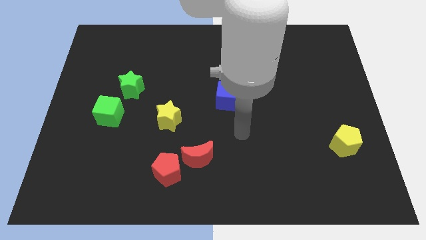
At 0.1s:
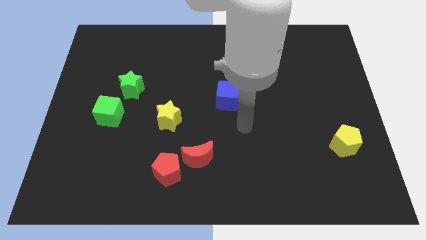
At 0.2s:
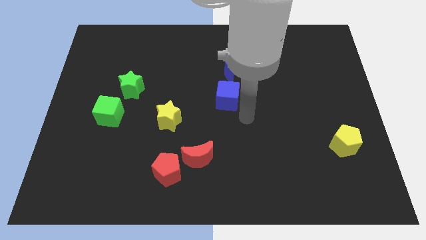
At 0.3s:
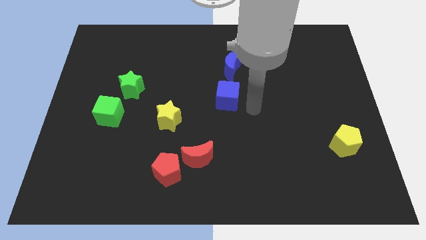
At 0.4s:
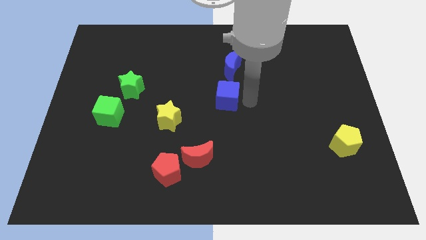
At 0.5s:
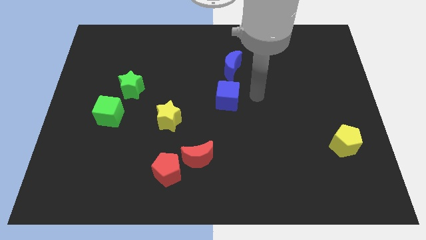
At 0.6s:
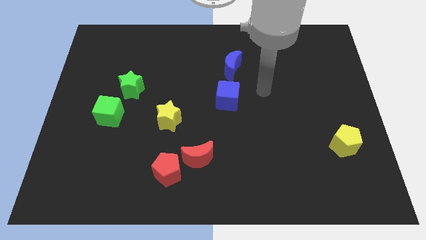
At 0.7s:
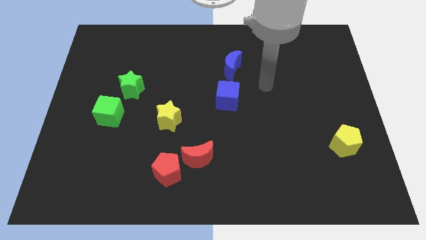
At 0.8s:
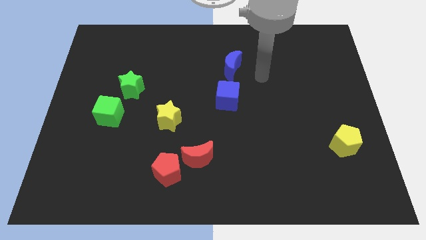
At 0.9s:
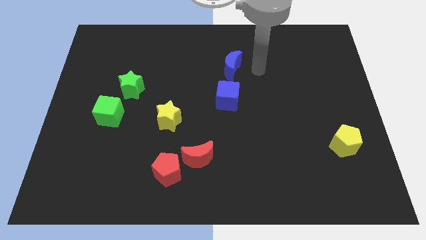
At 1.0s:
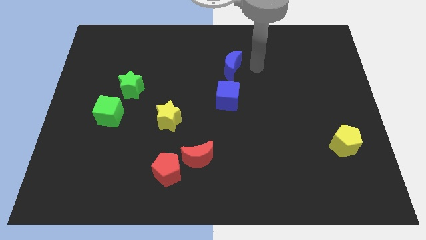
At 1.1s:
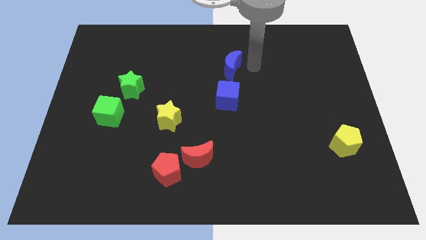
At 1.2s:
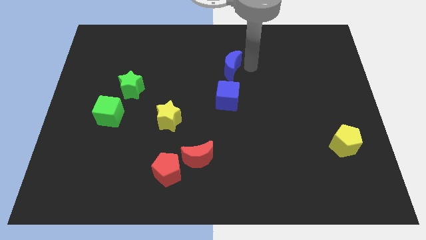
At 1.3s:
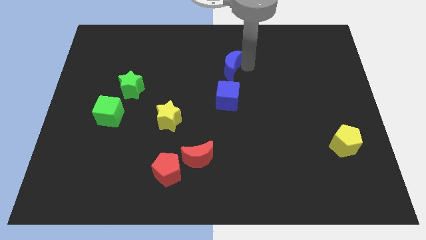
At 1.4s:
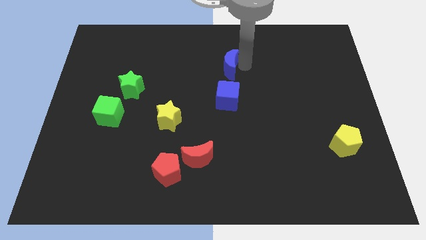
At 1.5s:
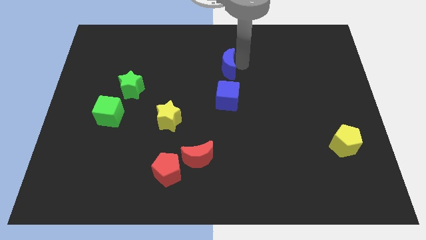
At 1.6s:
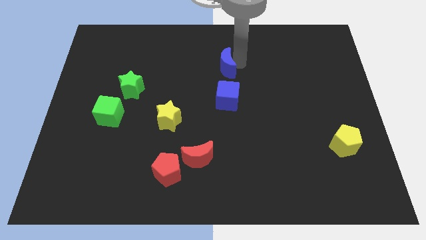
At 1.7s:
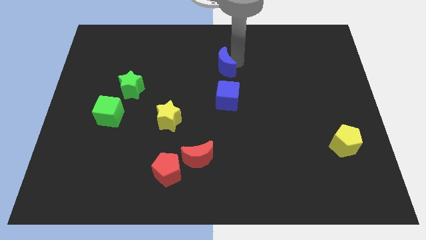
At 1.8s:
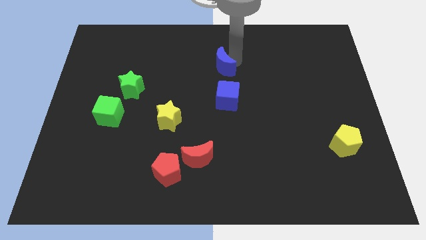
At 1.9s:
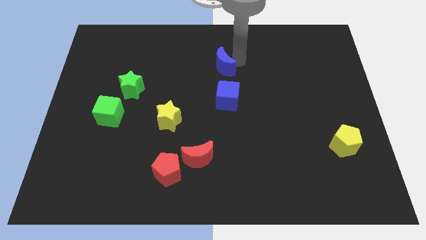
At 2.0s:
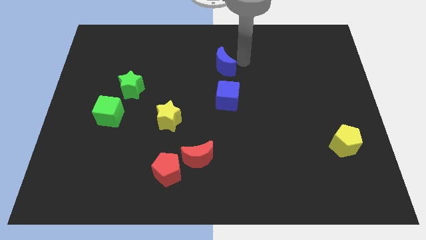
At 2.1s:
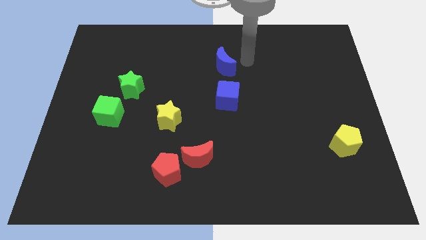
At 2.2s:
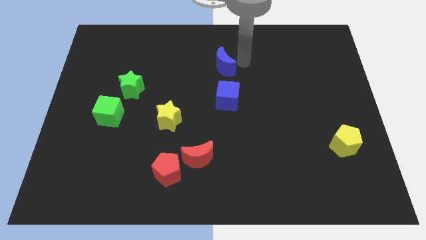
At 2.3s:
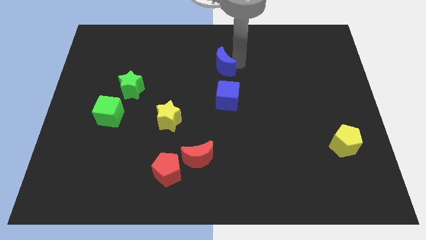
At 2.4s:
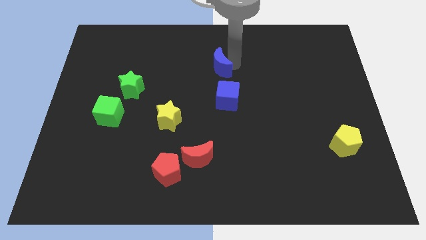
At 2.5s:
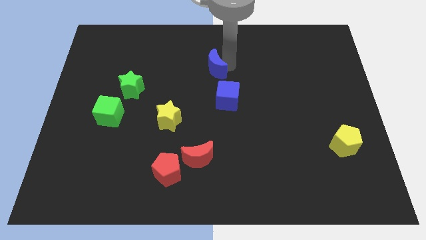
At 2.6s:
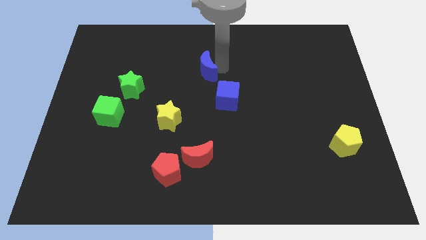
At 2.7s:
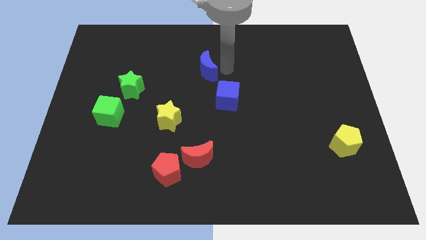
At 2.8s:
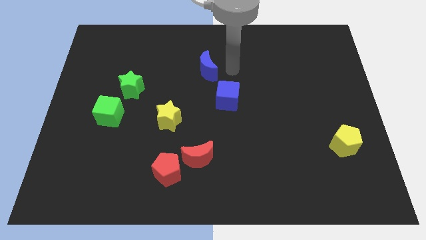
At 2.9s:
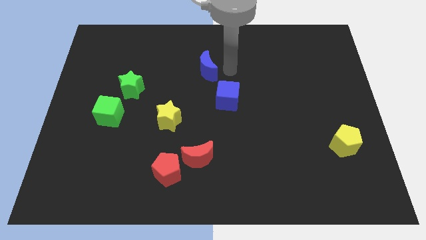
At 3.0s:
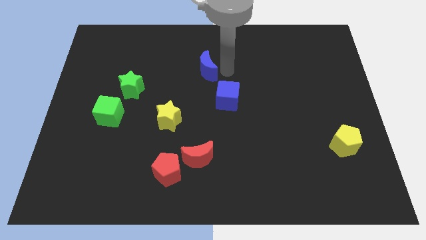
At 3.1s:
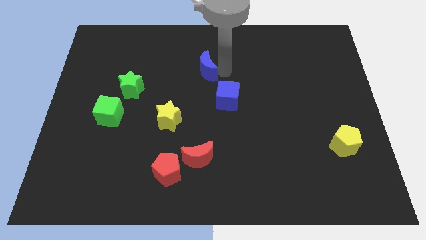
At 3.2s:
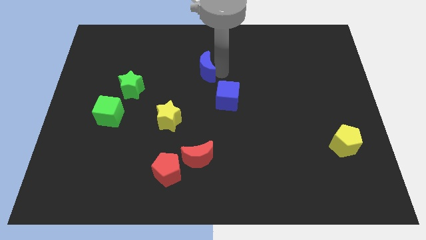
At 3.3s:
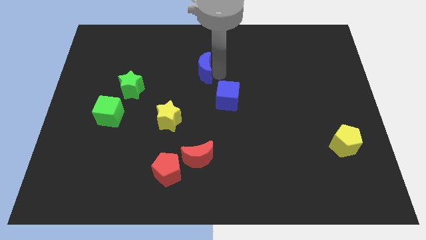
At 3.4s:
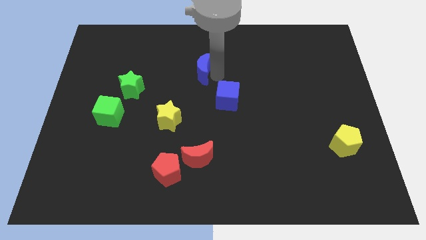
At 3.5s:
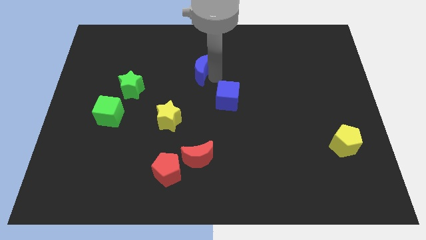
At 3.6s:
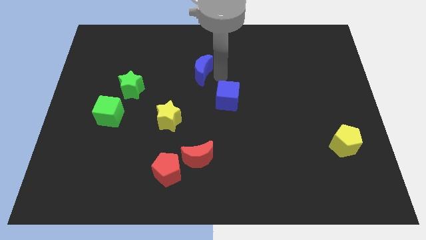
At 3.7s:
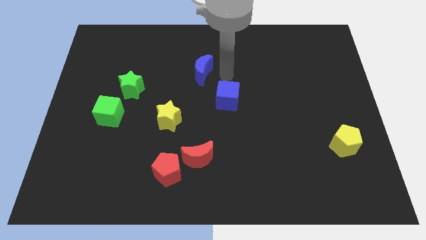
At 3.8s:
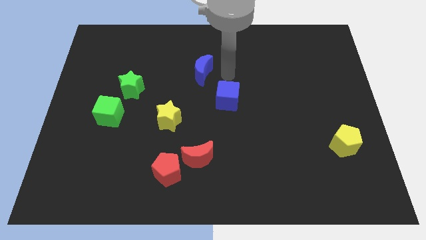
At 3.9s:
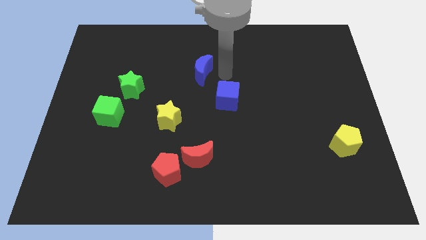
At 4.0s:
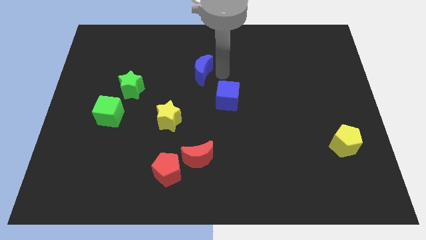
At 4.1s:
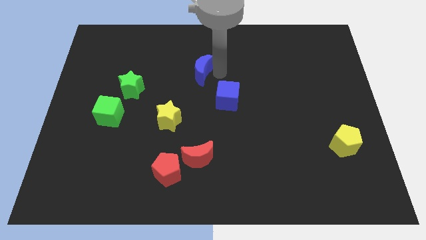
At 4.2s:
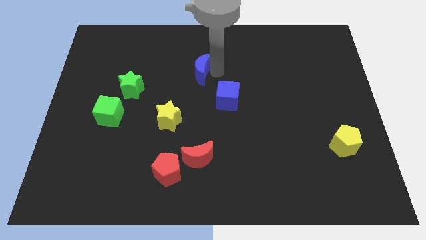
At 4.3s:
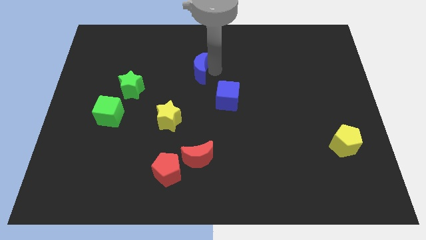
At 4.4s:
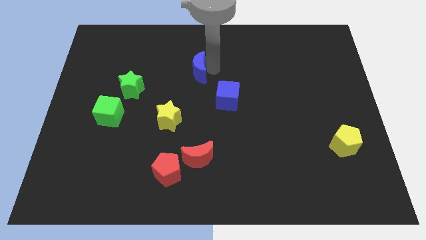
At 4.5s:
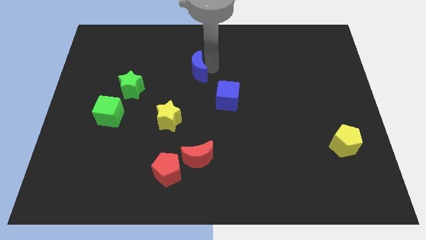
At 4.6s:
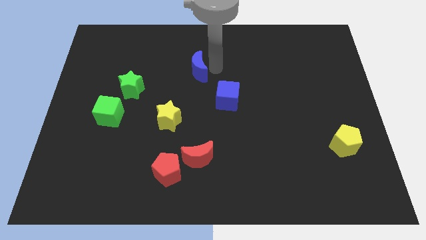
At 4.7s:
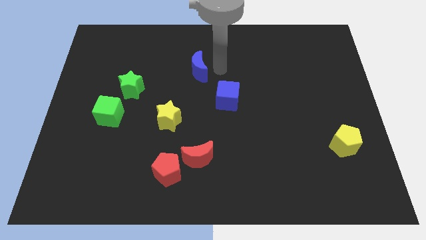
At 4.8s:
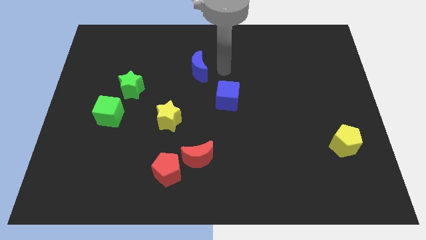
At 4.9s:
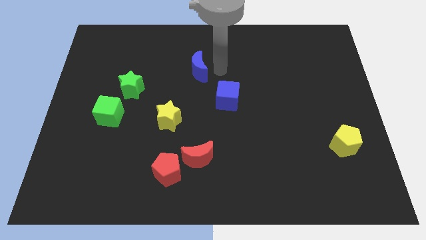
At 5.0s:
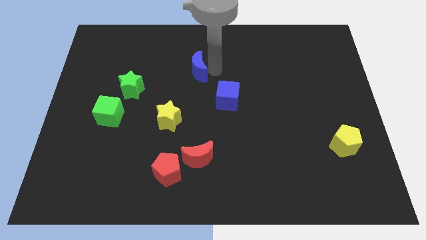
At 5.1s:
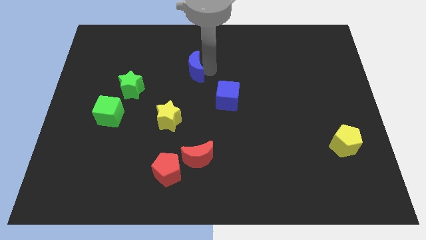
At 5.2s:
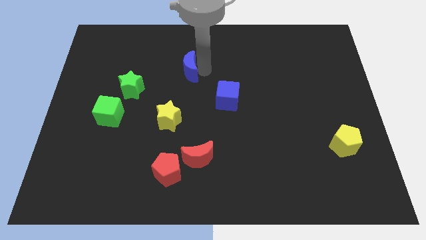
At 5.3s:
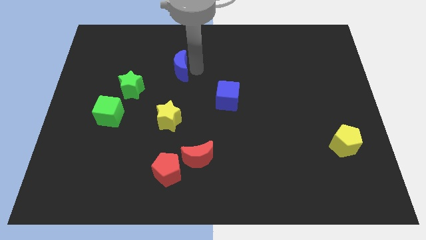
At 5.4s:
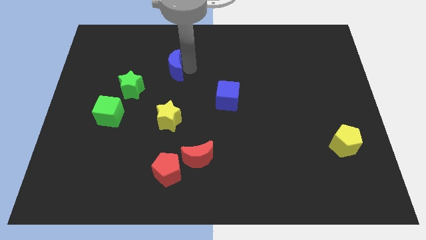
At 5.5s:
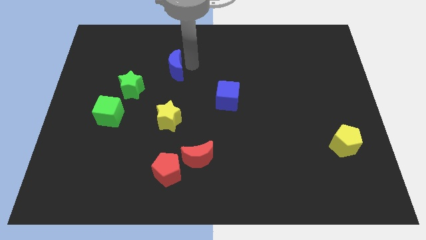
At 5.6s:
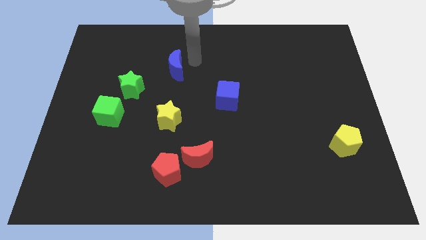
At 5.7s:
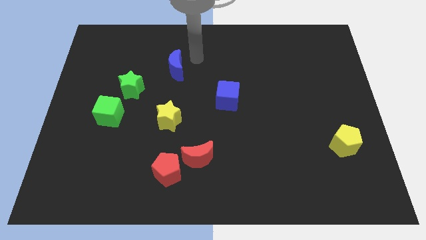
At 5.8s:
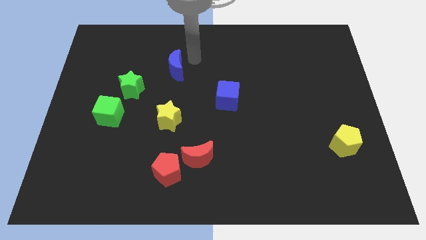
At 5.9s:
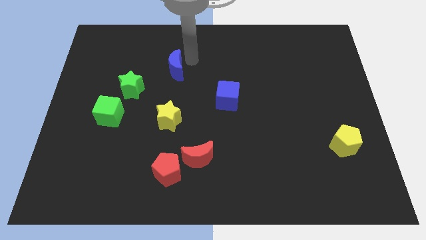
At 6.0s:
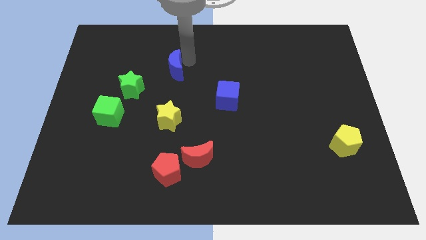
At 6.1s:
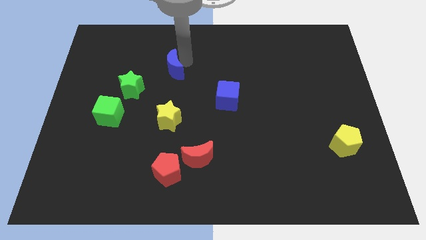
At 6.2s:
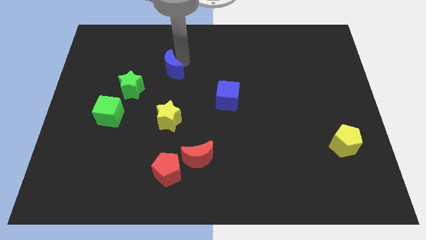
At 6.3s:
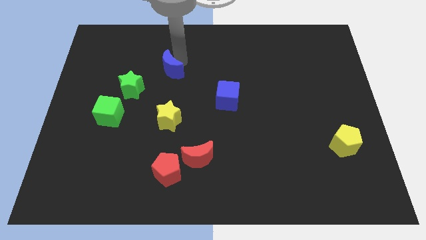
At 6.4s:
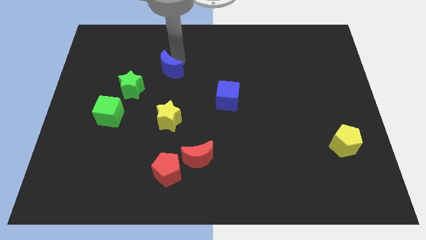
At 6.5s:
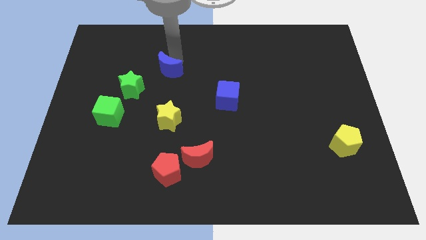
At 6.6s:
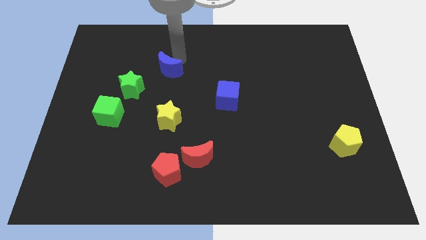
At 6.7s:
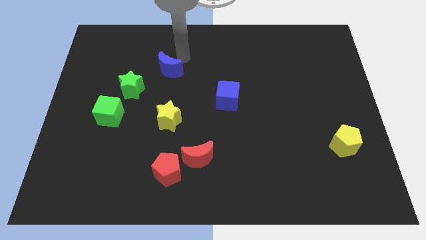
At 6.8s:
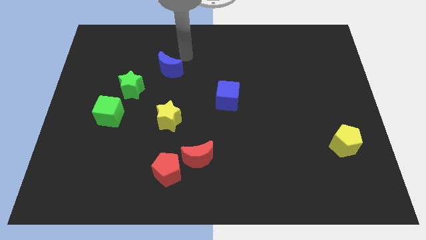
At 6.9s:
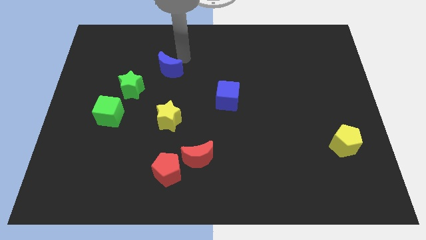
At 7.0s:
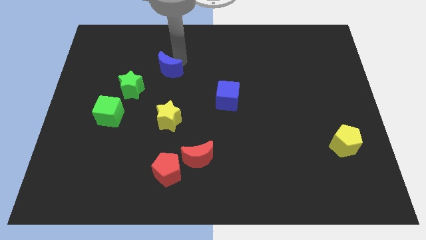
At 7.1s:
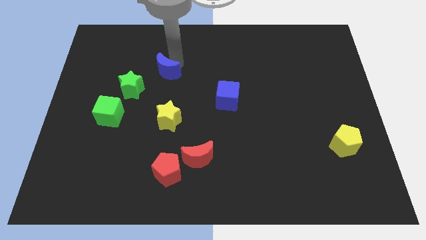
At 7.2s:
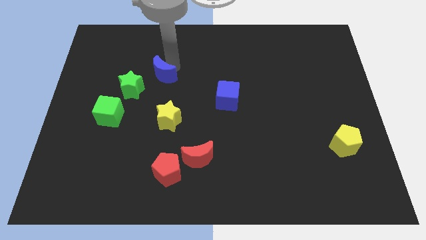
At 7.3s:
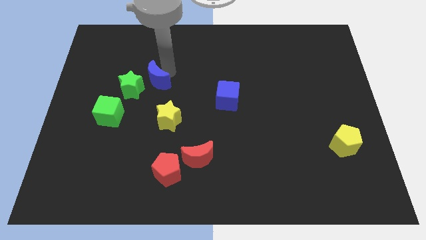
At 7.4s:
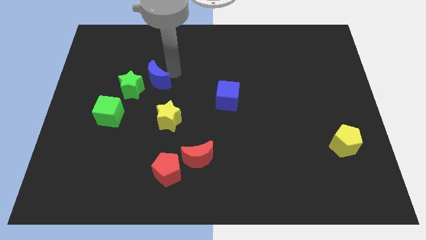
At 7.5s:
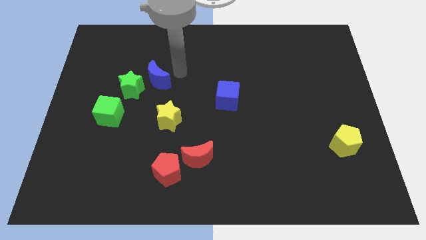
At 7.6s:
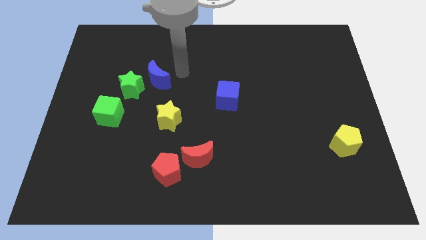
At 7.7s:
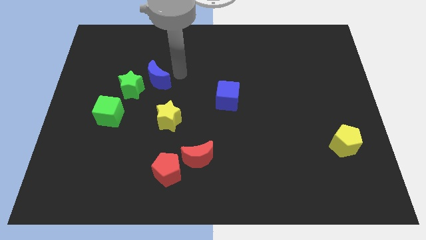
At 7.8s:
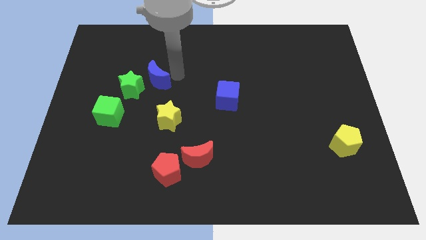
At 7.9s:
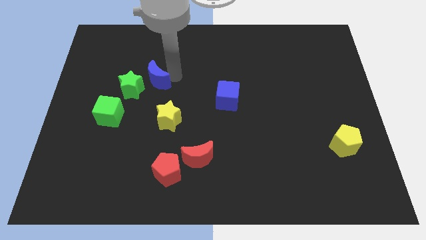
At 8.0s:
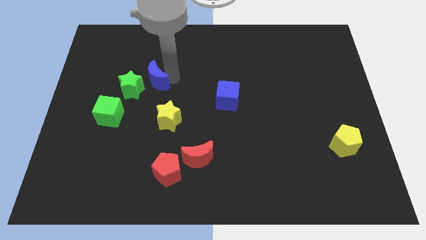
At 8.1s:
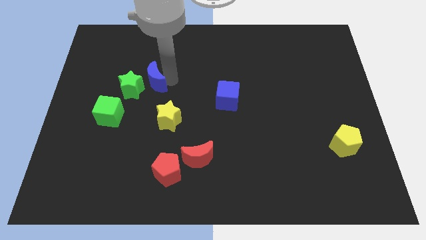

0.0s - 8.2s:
slide the blue moon next to the green star
